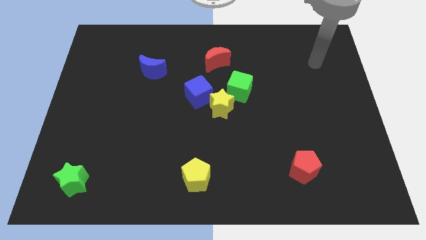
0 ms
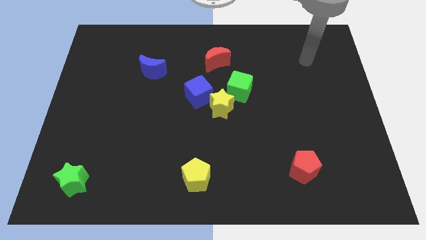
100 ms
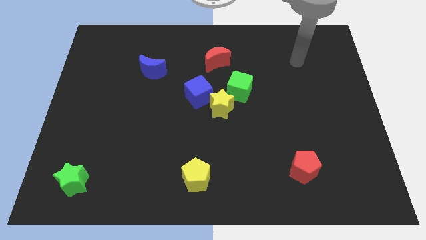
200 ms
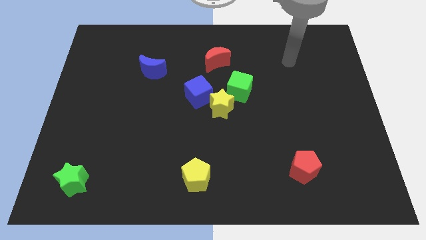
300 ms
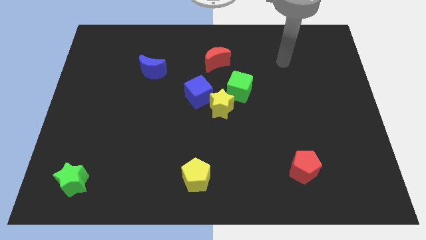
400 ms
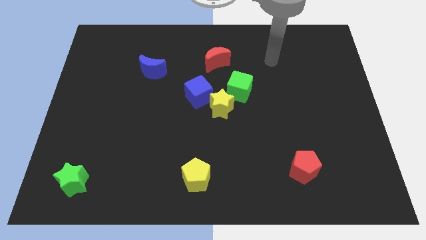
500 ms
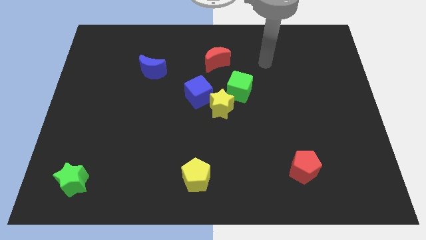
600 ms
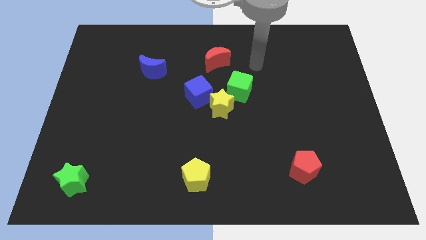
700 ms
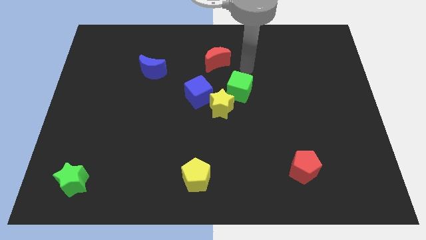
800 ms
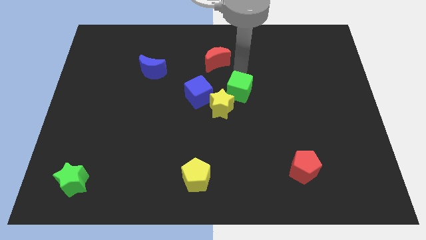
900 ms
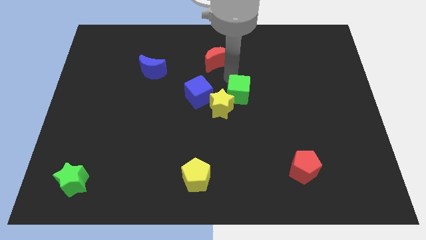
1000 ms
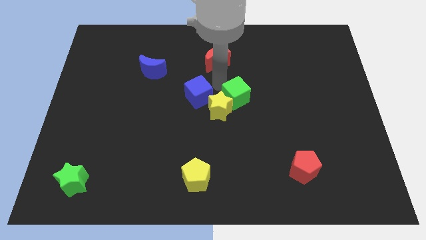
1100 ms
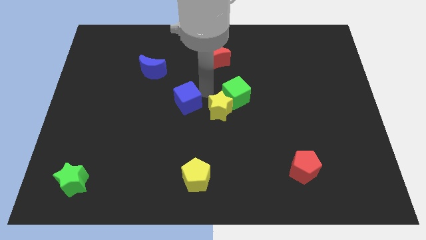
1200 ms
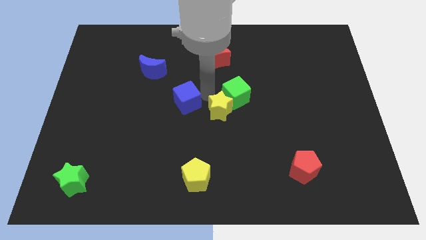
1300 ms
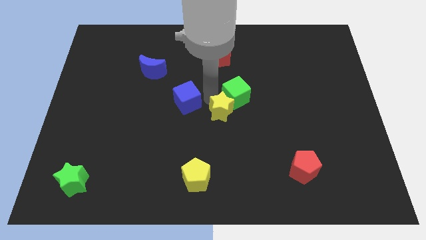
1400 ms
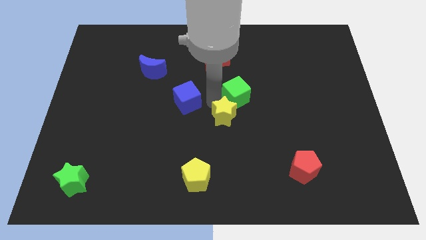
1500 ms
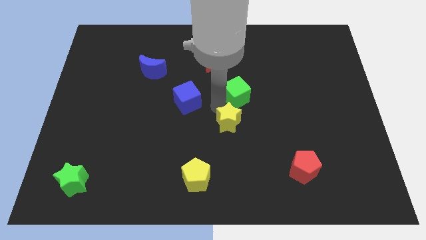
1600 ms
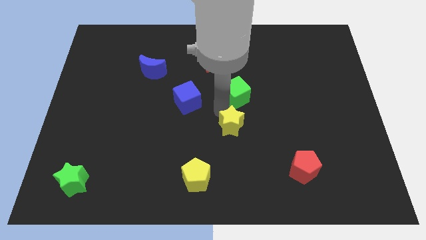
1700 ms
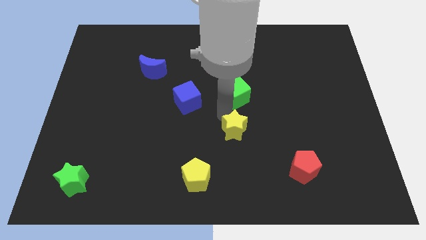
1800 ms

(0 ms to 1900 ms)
pull the yellow star apart from the blue cube and green cube

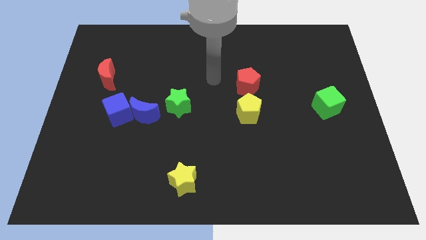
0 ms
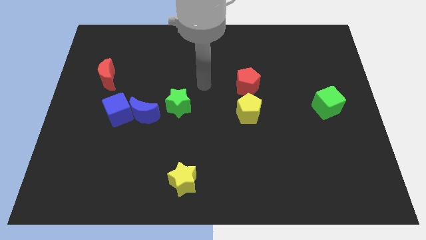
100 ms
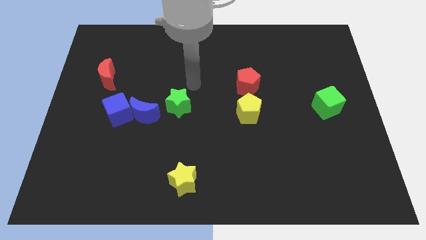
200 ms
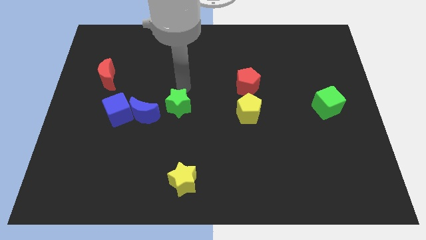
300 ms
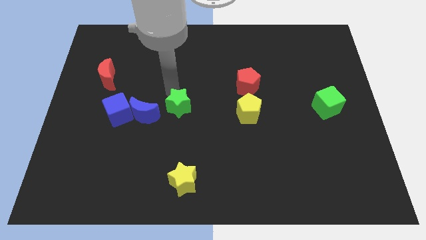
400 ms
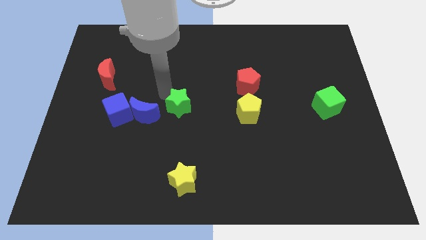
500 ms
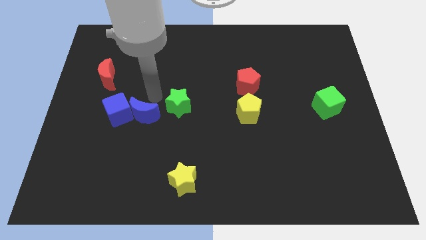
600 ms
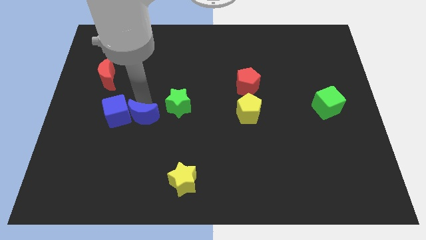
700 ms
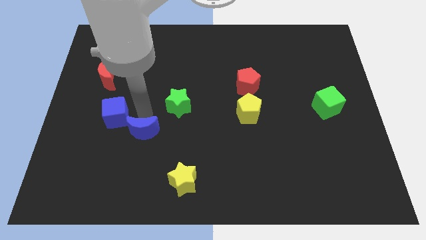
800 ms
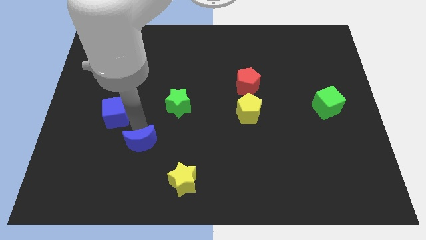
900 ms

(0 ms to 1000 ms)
separate the blue cube from the blue moon

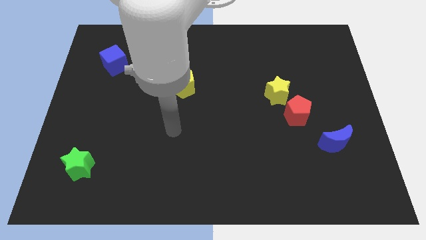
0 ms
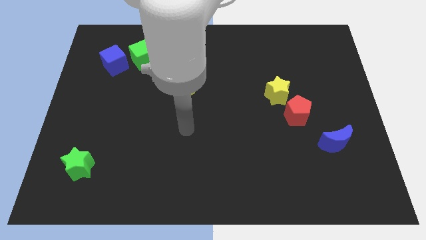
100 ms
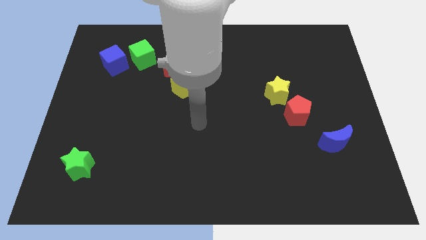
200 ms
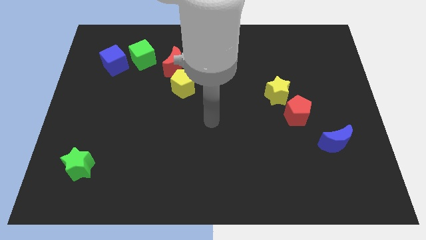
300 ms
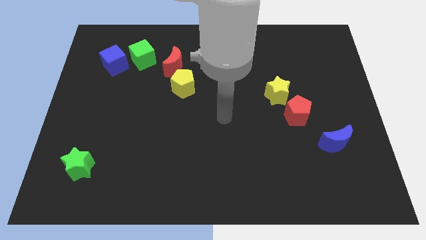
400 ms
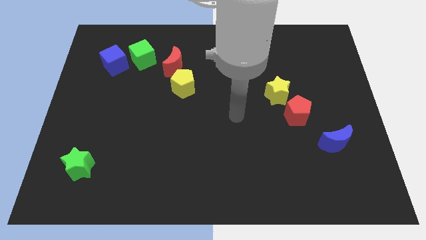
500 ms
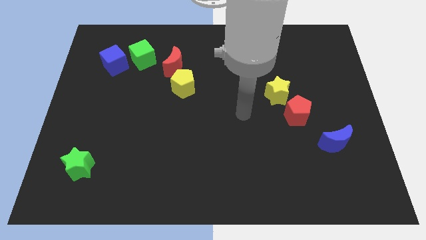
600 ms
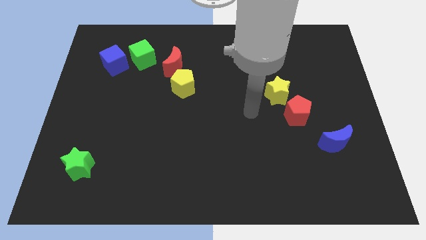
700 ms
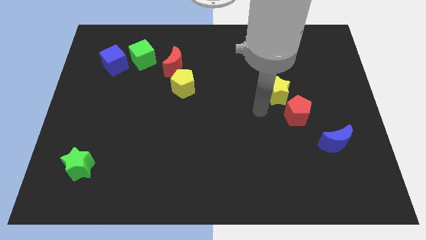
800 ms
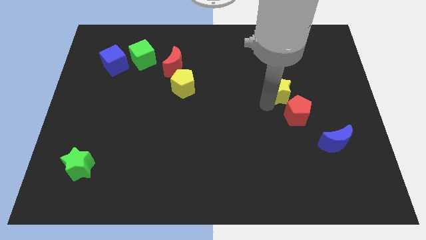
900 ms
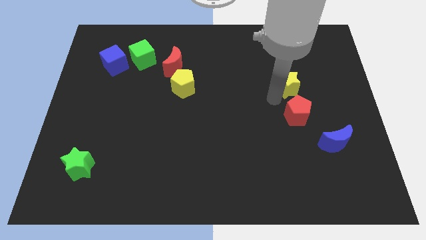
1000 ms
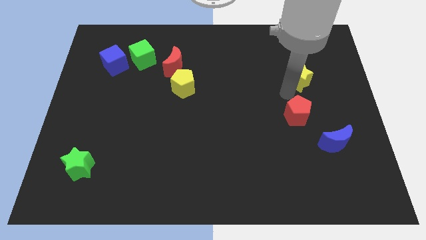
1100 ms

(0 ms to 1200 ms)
move the red pentagon away from the yellow star

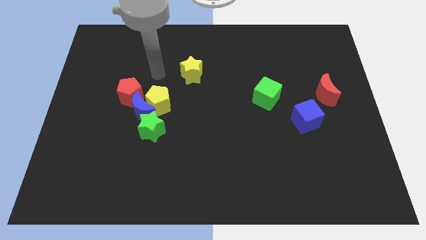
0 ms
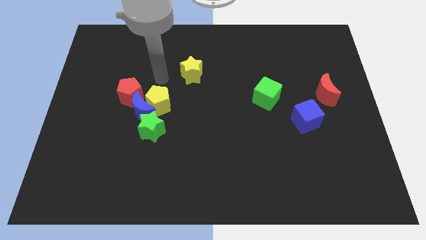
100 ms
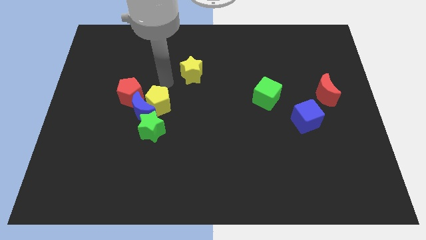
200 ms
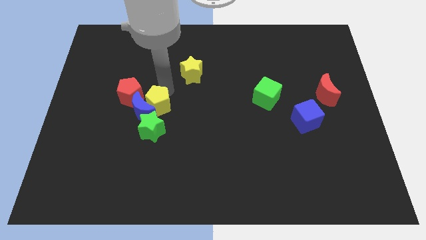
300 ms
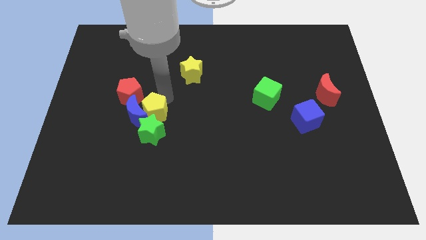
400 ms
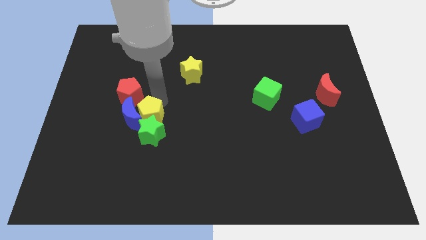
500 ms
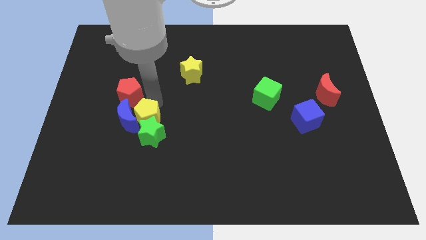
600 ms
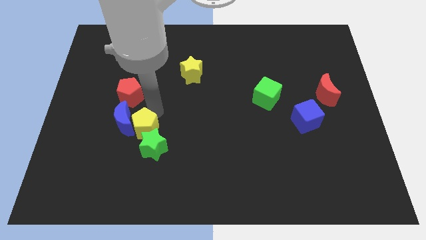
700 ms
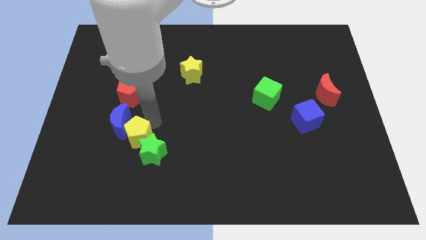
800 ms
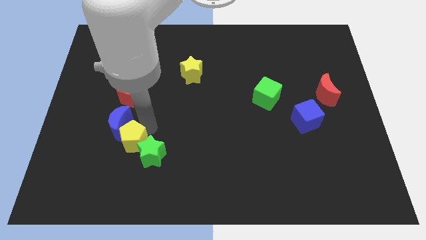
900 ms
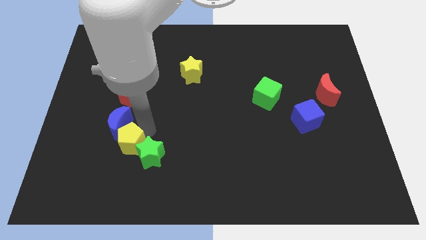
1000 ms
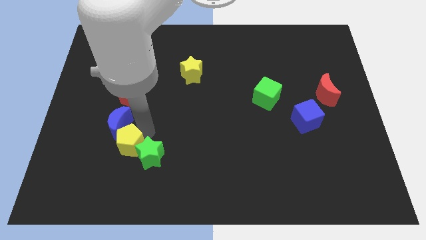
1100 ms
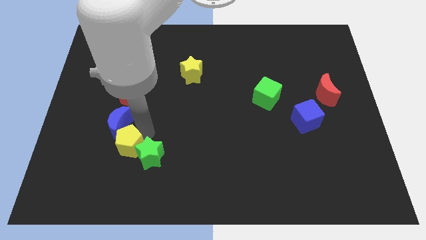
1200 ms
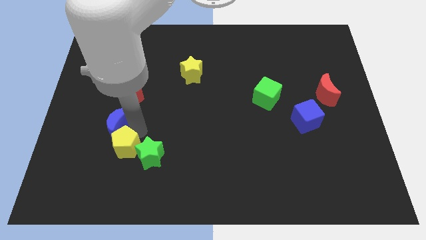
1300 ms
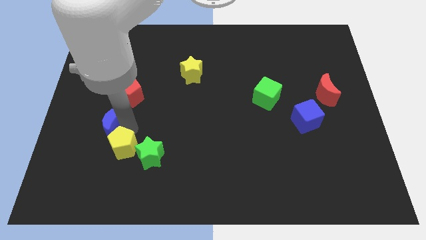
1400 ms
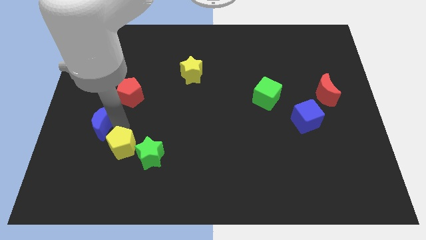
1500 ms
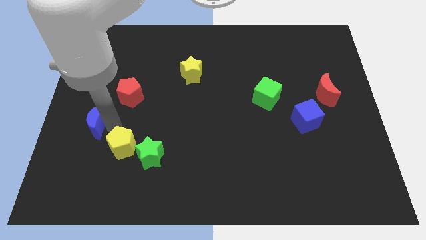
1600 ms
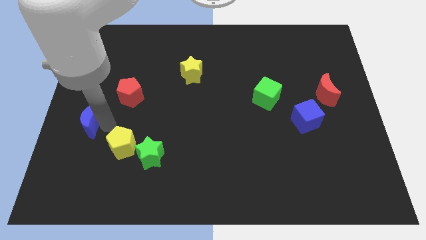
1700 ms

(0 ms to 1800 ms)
pull the blue moon apart from the yellow pentagon, green star, and red pentagon

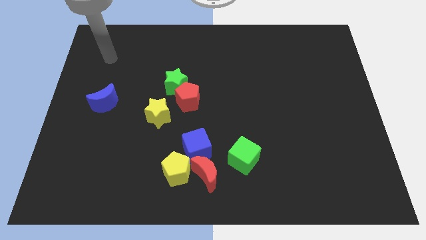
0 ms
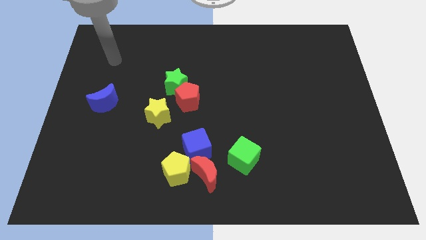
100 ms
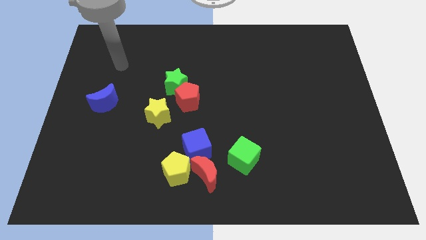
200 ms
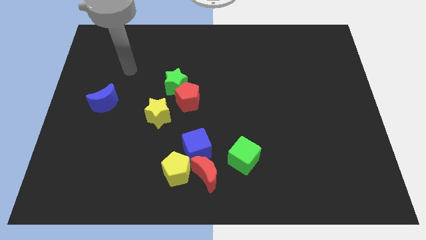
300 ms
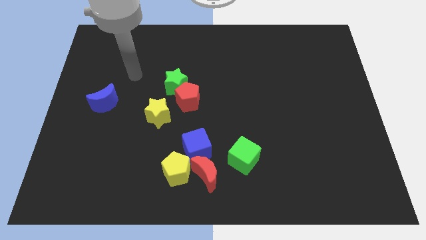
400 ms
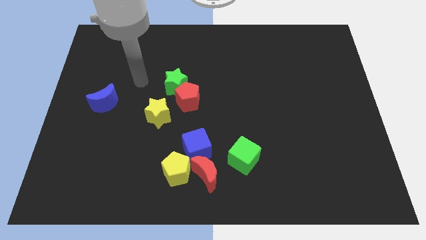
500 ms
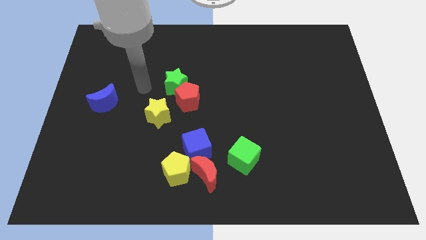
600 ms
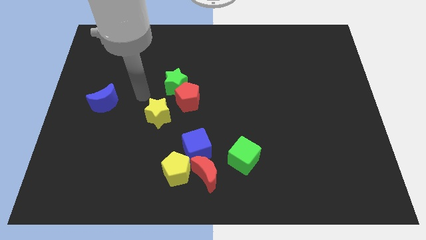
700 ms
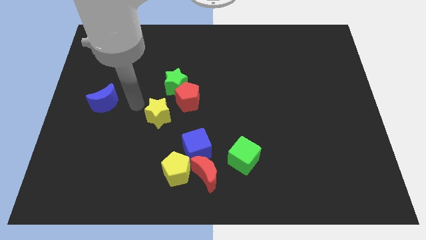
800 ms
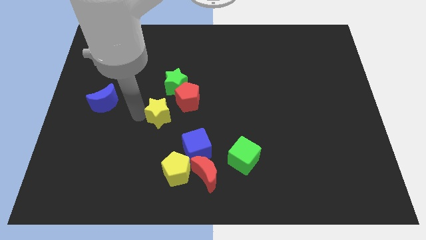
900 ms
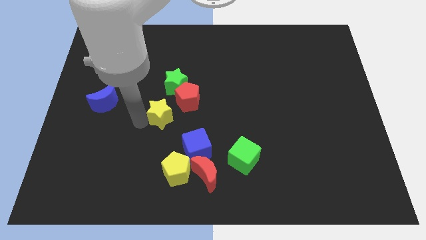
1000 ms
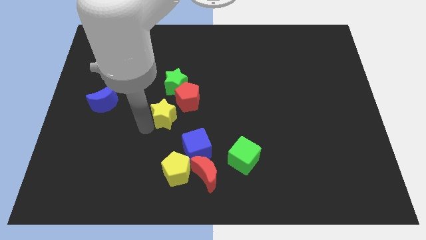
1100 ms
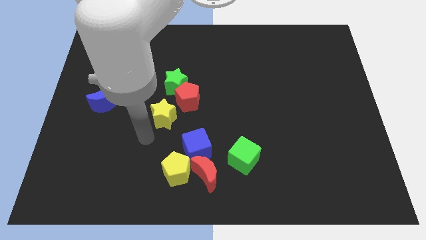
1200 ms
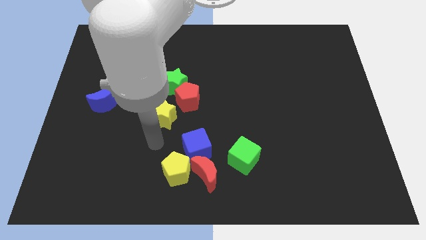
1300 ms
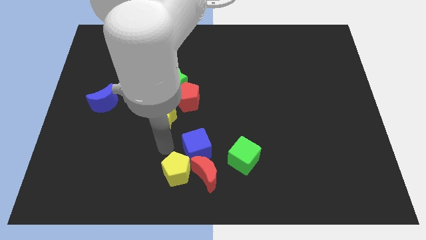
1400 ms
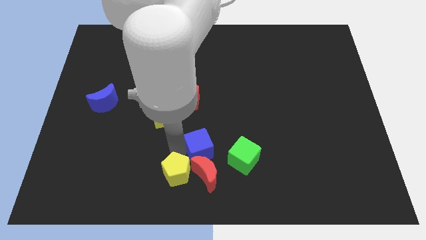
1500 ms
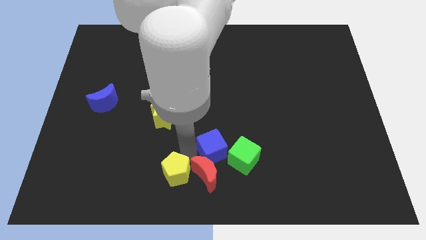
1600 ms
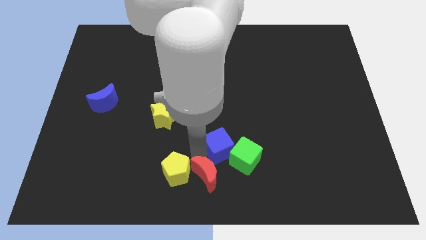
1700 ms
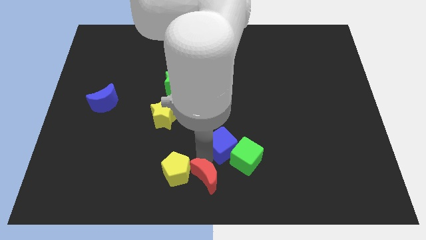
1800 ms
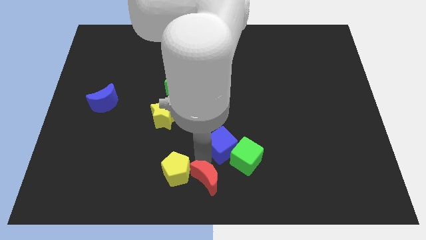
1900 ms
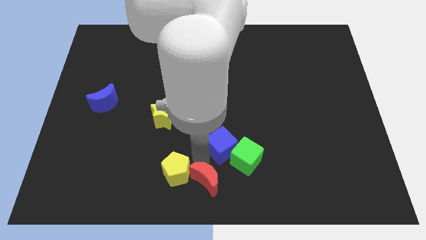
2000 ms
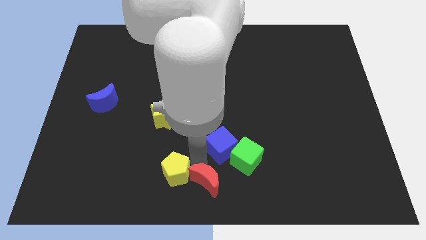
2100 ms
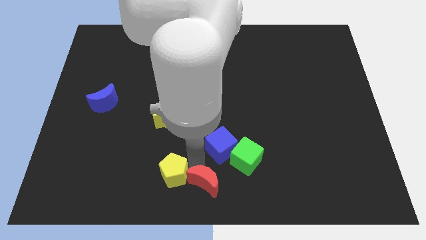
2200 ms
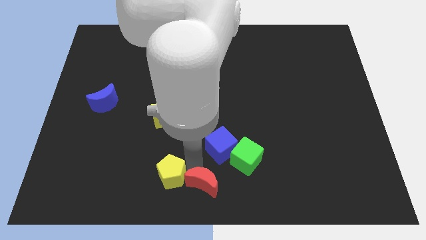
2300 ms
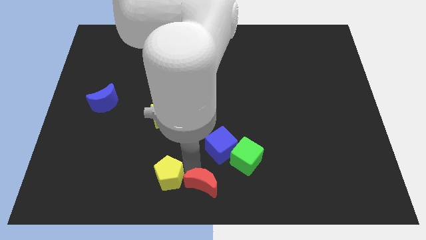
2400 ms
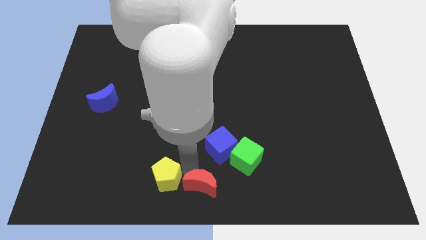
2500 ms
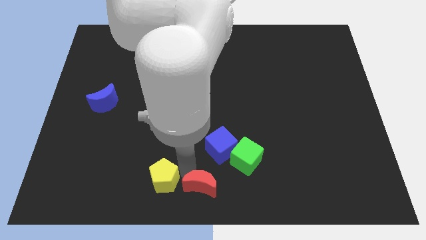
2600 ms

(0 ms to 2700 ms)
separate the yellow pentagon from the red moon and blue cube

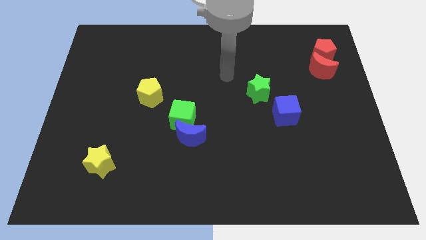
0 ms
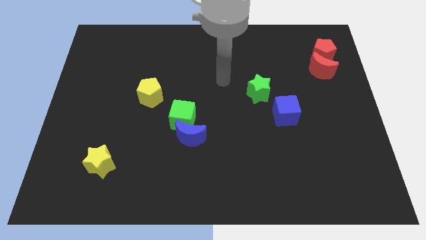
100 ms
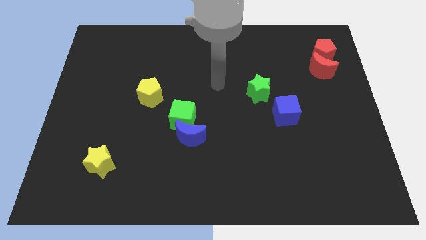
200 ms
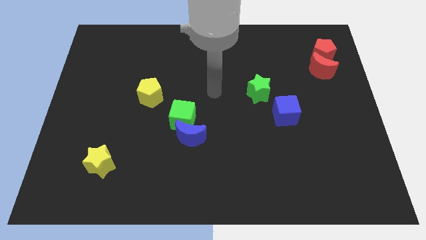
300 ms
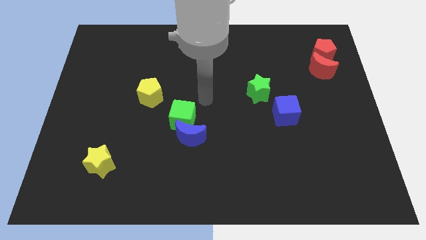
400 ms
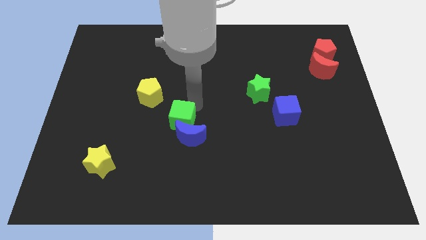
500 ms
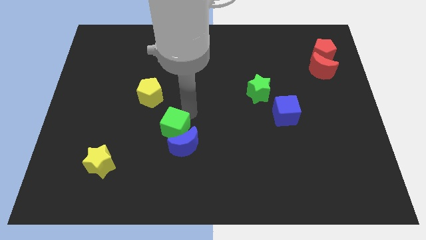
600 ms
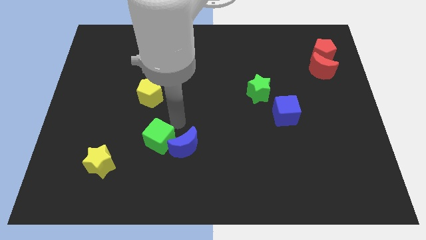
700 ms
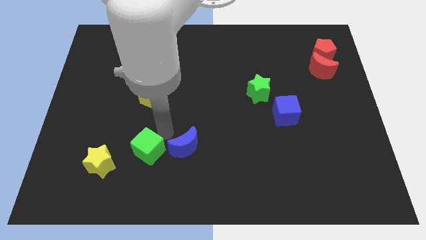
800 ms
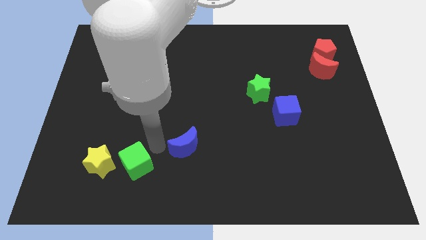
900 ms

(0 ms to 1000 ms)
separate the blue moon from the green cube
